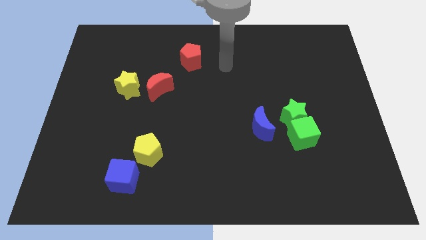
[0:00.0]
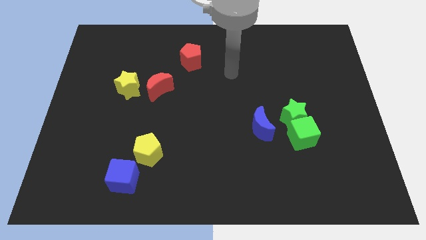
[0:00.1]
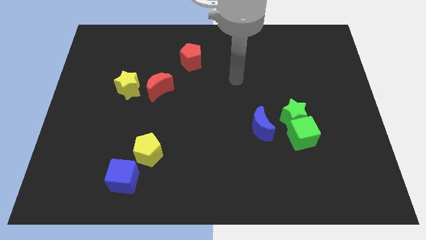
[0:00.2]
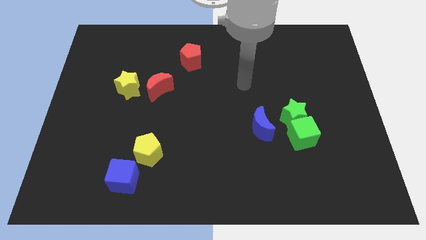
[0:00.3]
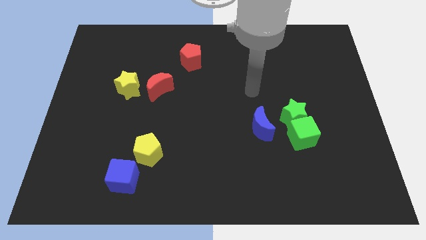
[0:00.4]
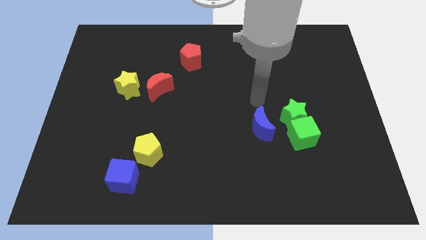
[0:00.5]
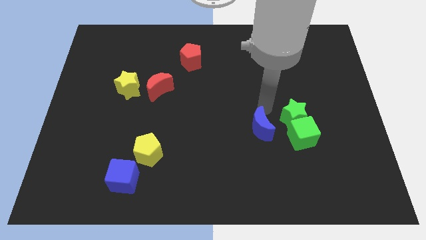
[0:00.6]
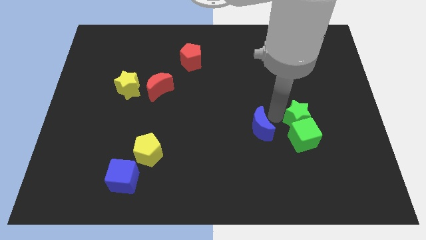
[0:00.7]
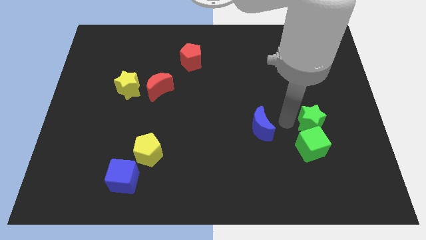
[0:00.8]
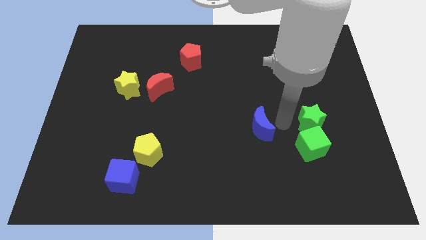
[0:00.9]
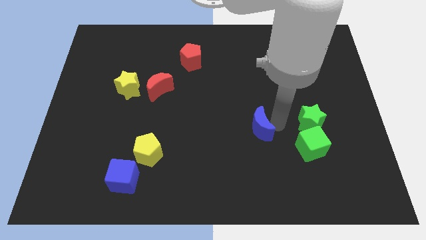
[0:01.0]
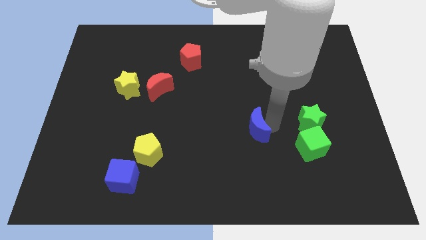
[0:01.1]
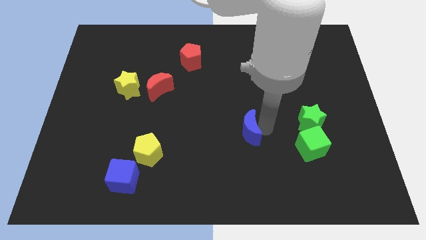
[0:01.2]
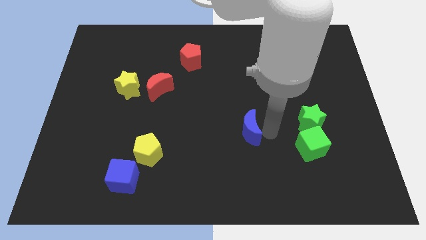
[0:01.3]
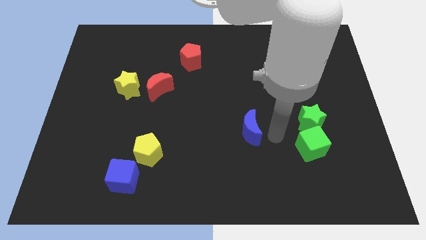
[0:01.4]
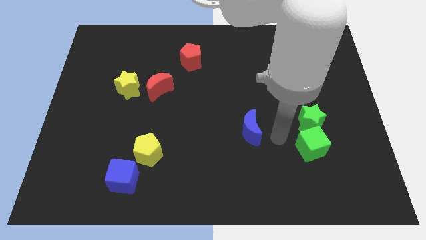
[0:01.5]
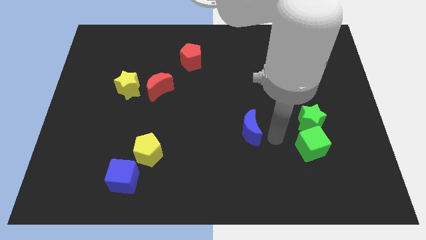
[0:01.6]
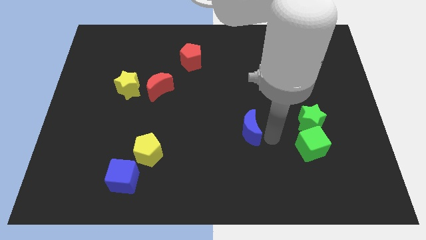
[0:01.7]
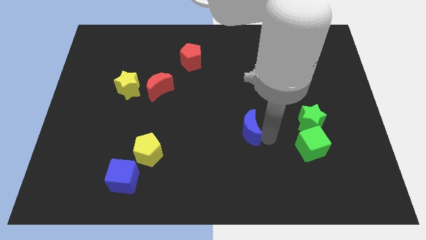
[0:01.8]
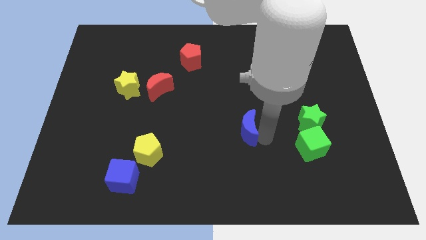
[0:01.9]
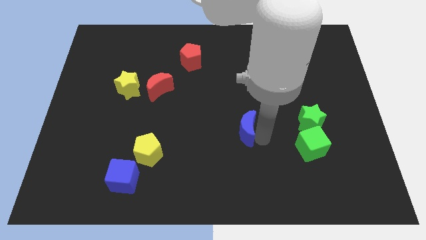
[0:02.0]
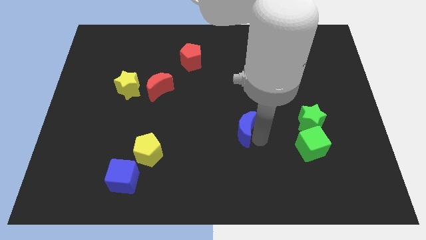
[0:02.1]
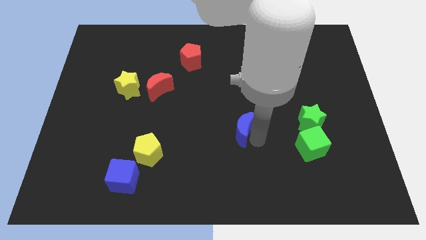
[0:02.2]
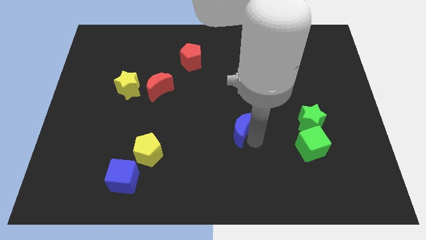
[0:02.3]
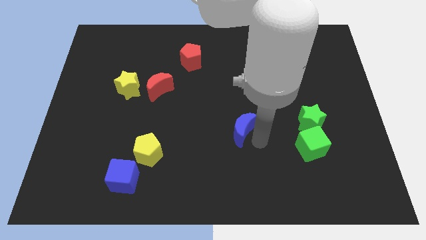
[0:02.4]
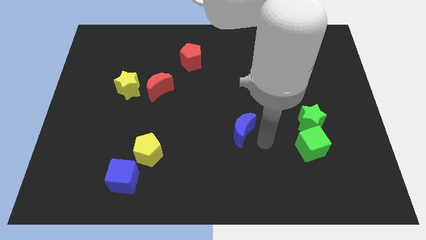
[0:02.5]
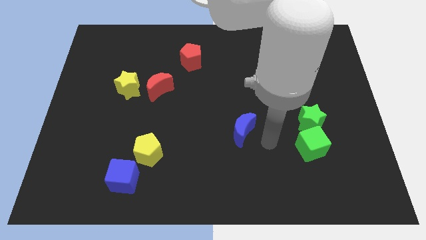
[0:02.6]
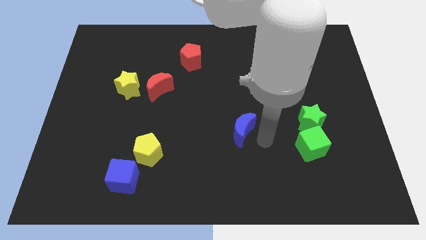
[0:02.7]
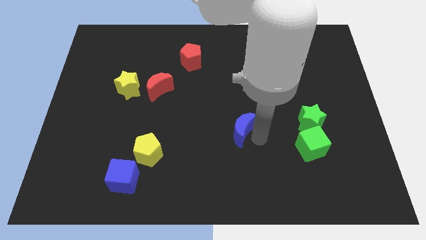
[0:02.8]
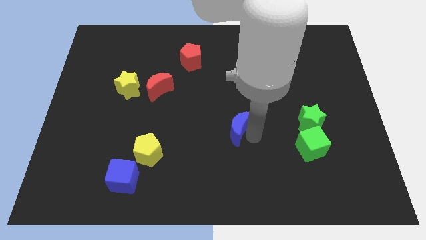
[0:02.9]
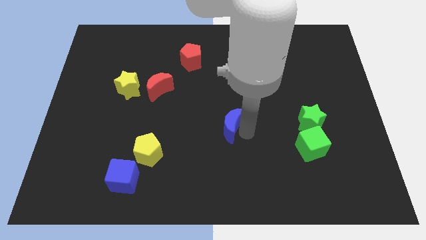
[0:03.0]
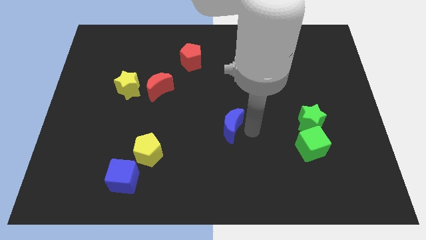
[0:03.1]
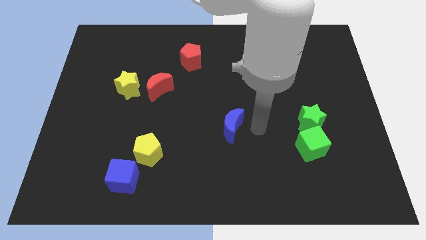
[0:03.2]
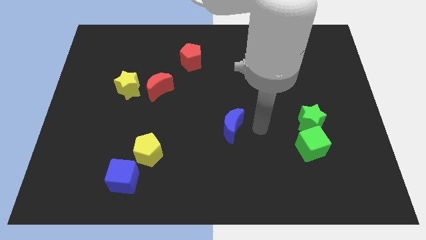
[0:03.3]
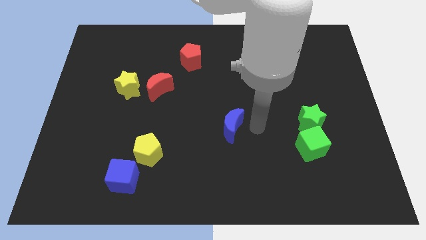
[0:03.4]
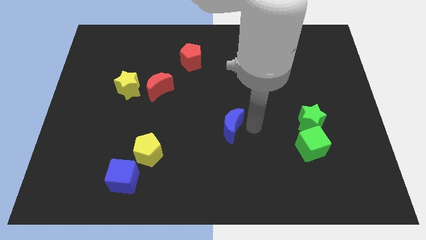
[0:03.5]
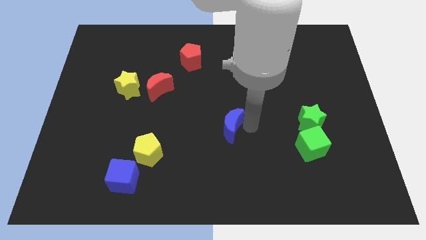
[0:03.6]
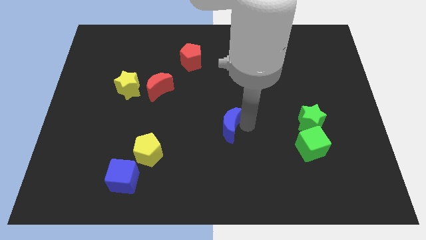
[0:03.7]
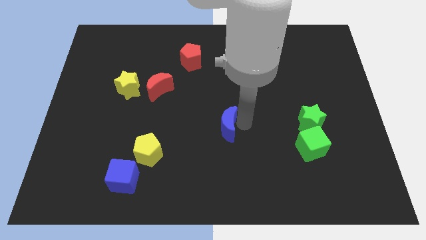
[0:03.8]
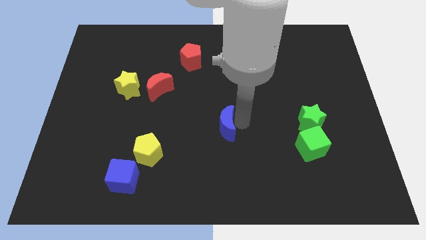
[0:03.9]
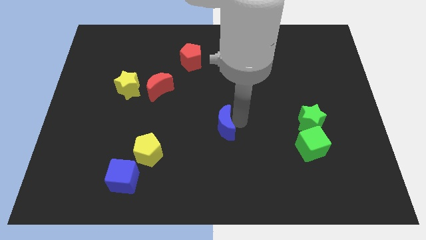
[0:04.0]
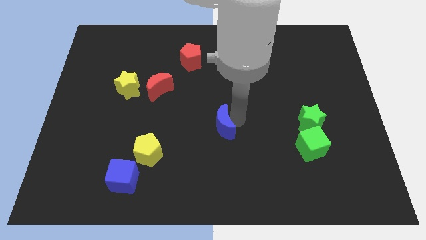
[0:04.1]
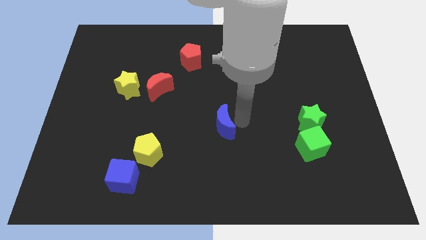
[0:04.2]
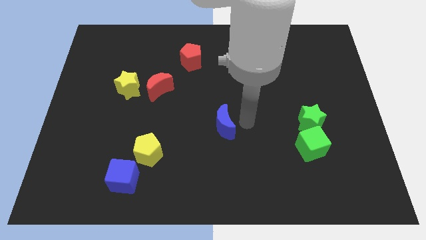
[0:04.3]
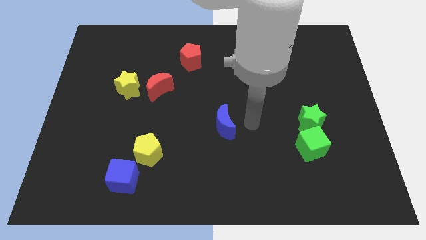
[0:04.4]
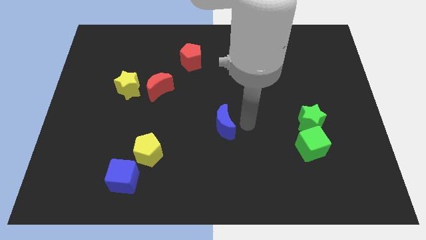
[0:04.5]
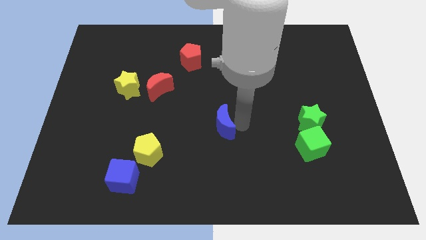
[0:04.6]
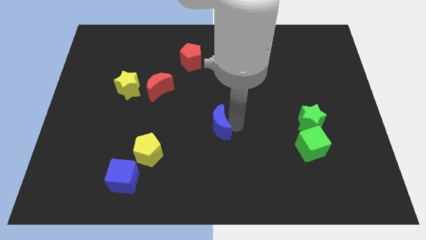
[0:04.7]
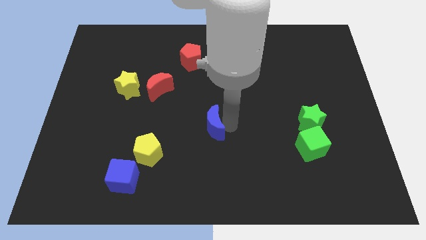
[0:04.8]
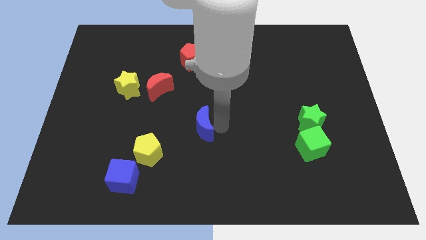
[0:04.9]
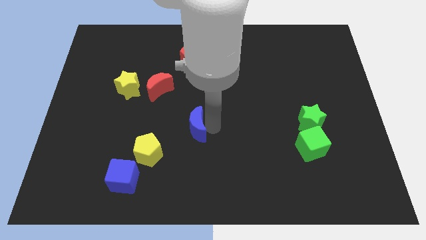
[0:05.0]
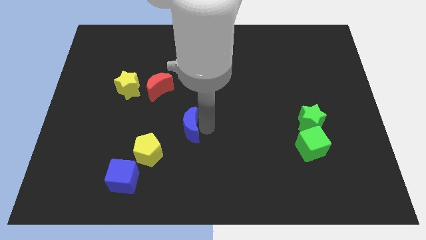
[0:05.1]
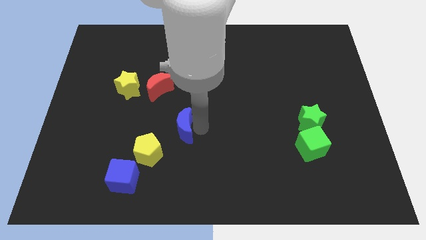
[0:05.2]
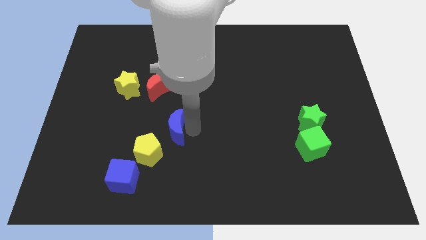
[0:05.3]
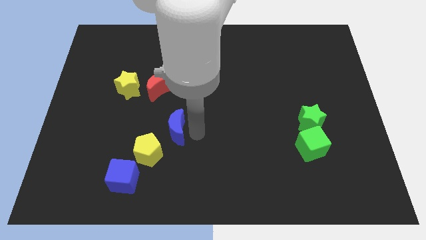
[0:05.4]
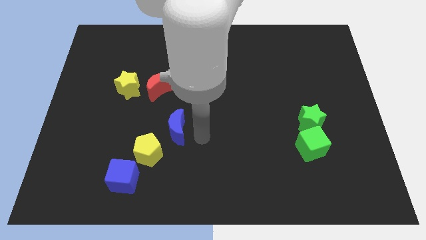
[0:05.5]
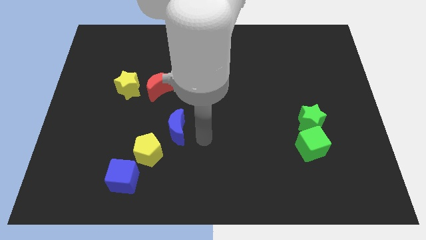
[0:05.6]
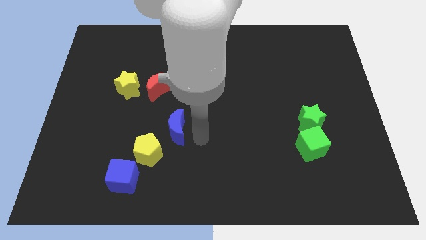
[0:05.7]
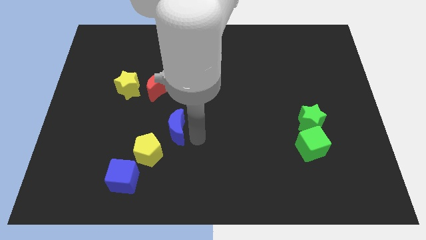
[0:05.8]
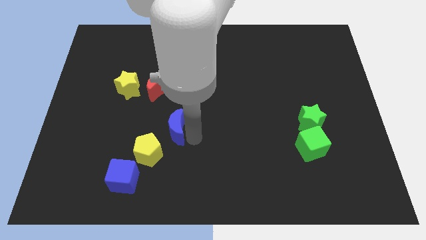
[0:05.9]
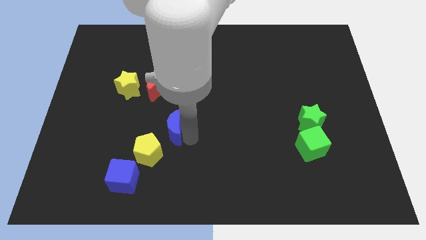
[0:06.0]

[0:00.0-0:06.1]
push the blue moon to the bottom of the red moon

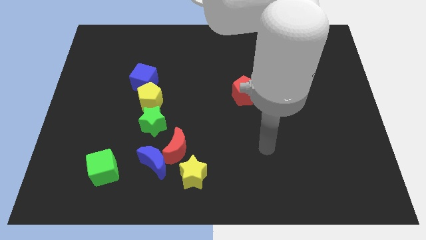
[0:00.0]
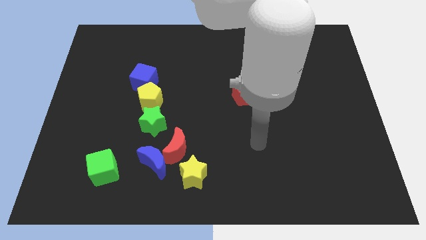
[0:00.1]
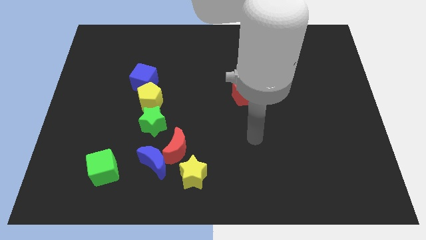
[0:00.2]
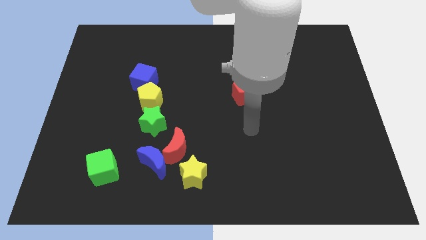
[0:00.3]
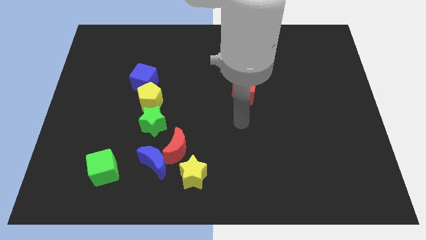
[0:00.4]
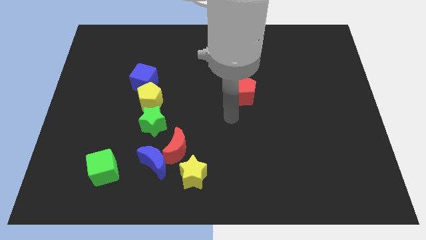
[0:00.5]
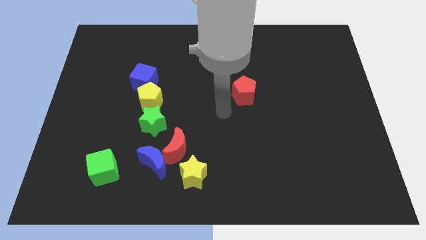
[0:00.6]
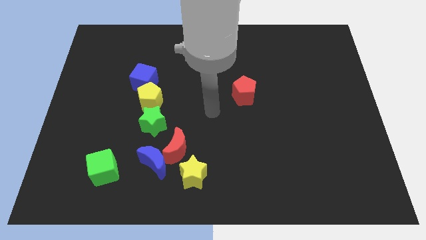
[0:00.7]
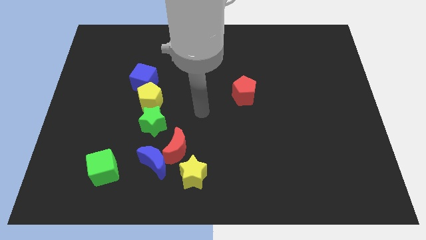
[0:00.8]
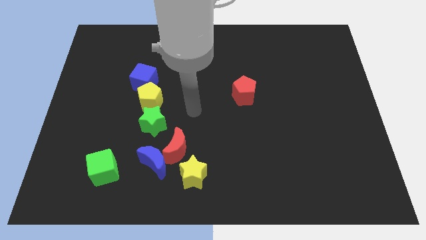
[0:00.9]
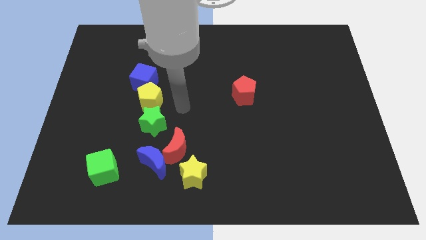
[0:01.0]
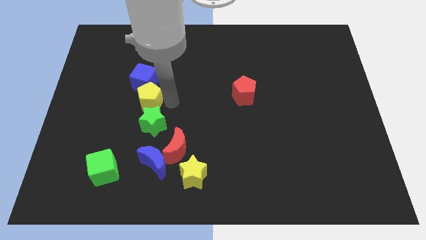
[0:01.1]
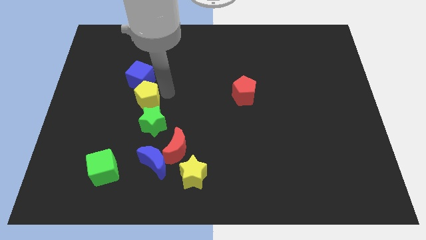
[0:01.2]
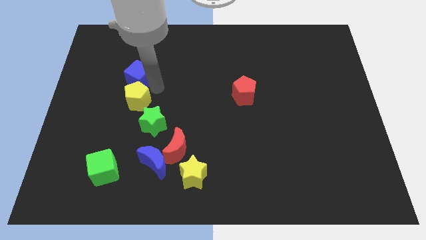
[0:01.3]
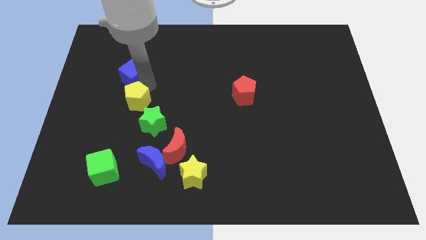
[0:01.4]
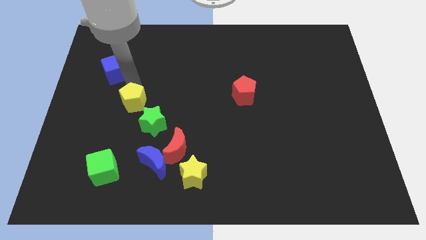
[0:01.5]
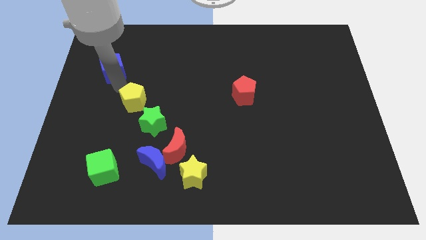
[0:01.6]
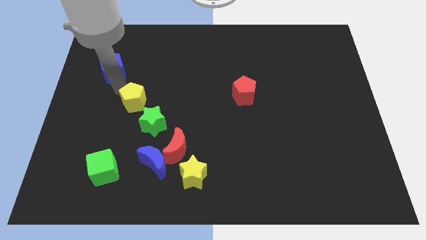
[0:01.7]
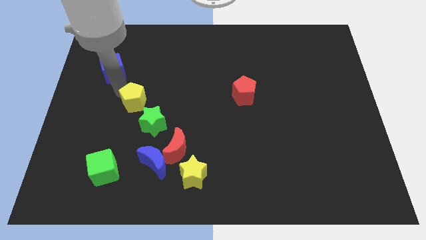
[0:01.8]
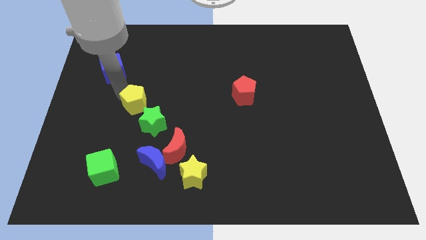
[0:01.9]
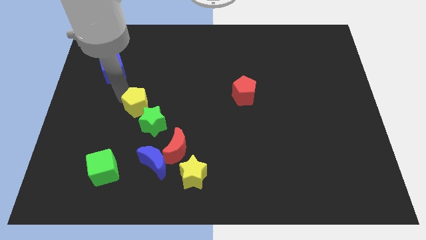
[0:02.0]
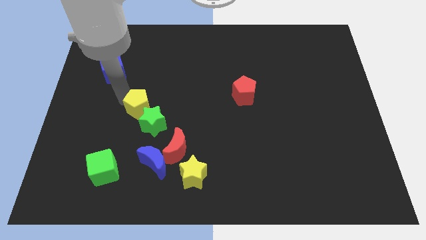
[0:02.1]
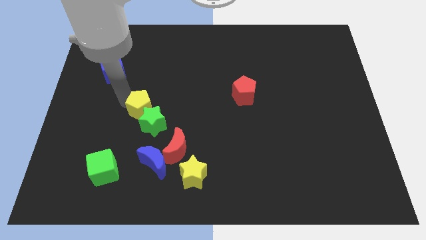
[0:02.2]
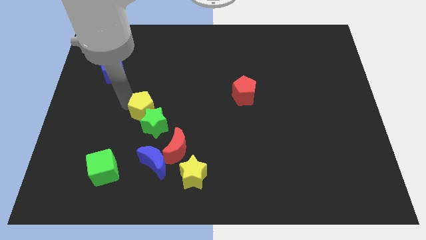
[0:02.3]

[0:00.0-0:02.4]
move the yellow pentagon above the blue moon
